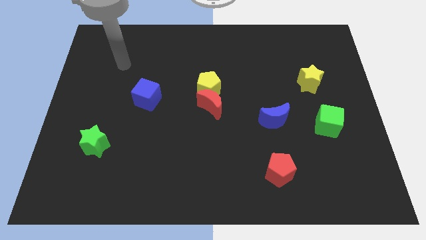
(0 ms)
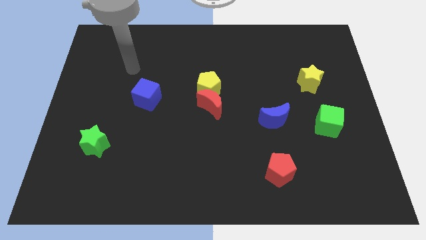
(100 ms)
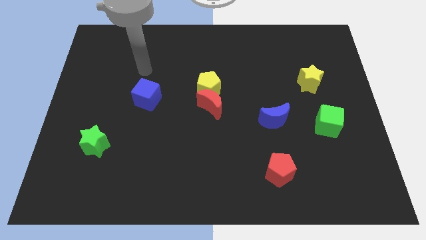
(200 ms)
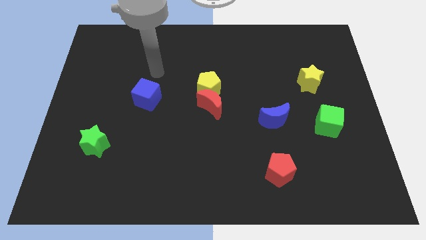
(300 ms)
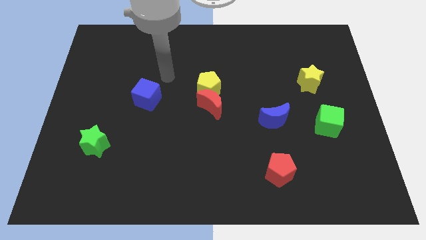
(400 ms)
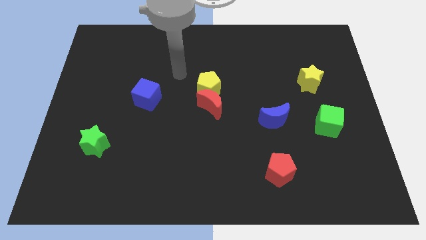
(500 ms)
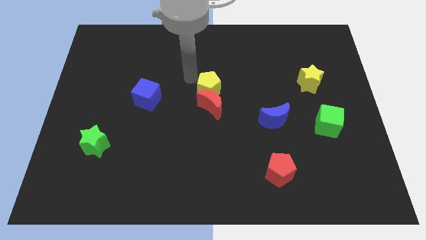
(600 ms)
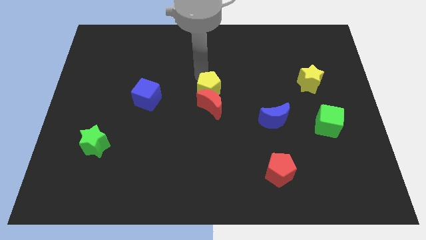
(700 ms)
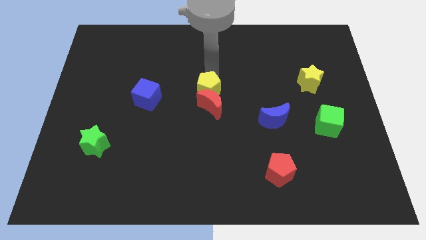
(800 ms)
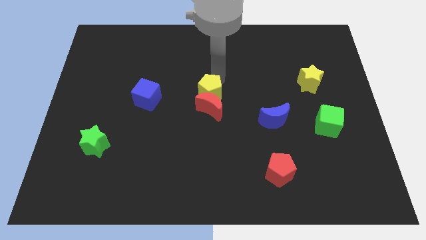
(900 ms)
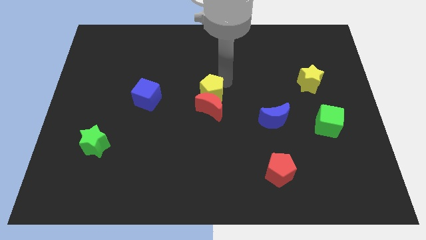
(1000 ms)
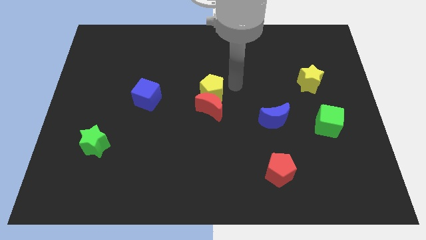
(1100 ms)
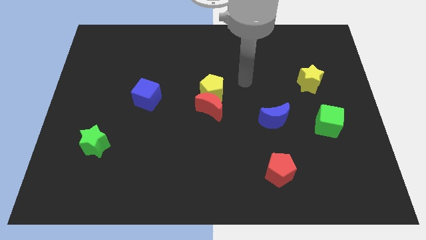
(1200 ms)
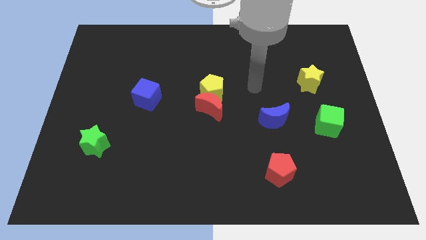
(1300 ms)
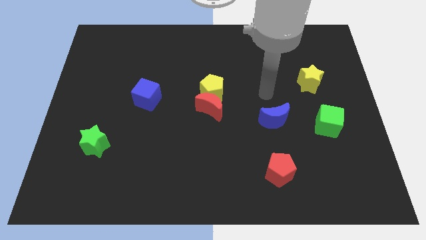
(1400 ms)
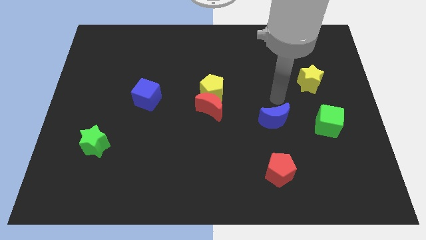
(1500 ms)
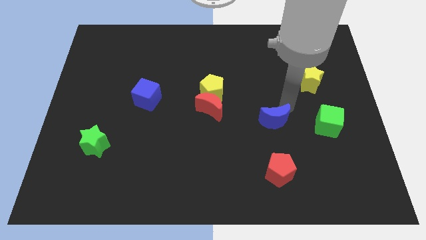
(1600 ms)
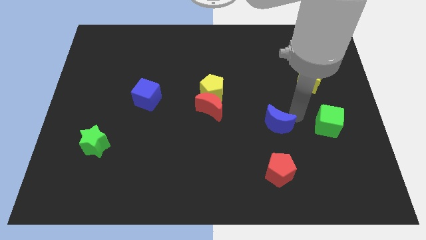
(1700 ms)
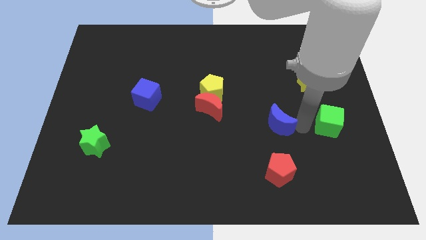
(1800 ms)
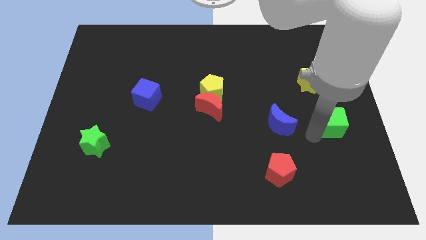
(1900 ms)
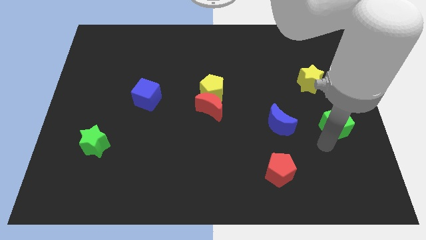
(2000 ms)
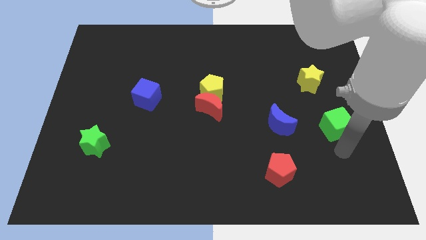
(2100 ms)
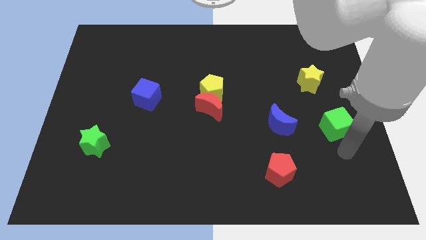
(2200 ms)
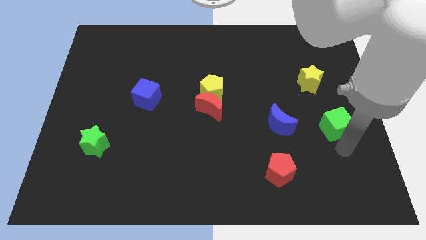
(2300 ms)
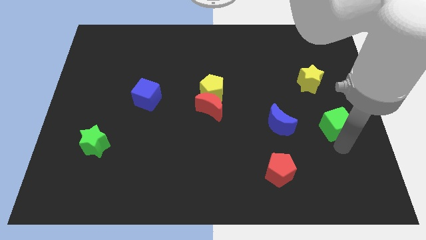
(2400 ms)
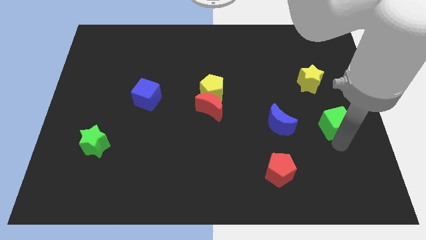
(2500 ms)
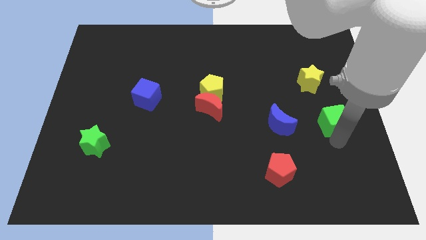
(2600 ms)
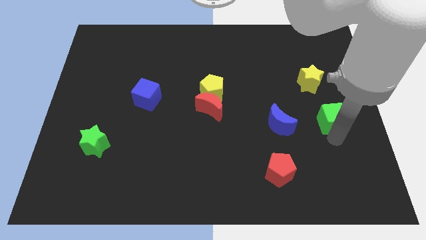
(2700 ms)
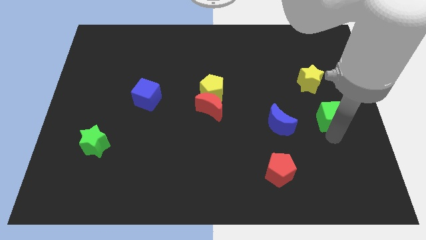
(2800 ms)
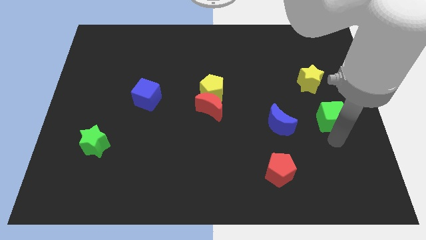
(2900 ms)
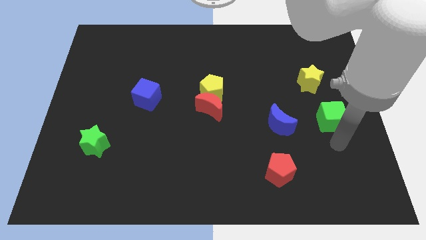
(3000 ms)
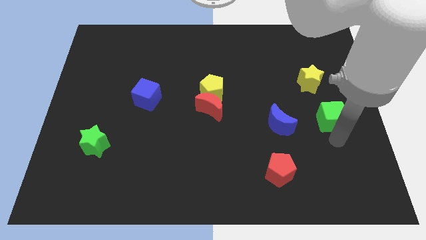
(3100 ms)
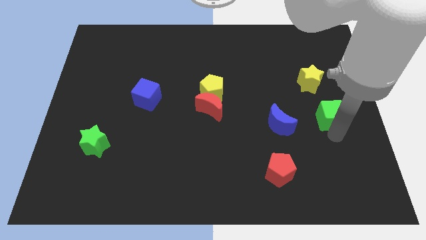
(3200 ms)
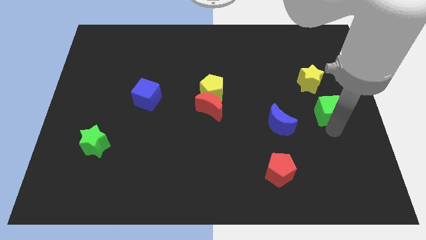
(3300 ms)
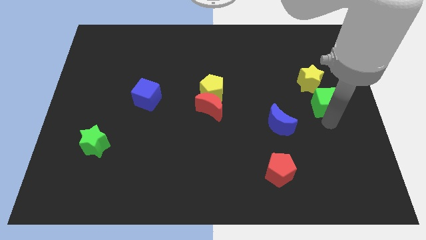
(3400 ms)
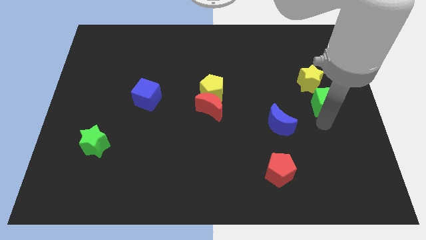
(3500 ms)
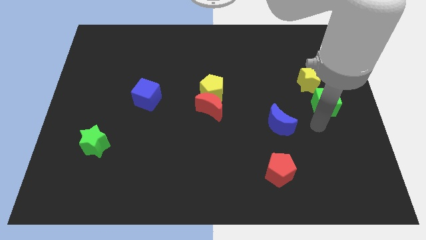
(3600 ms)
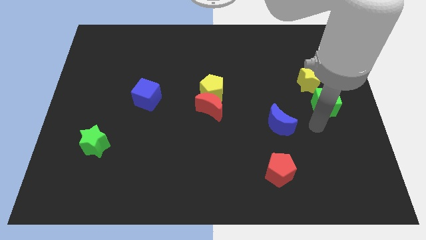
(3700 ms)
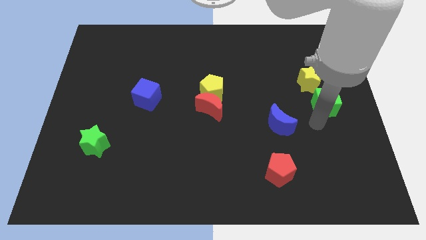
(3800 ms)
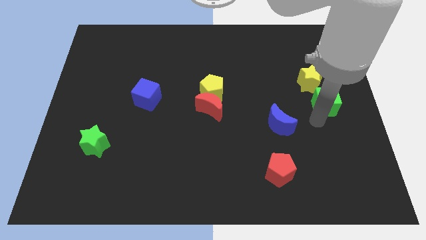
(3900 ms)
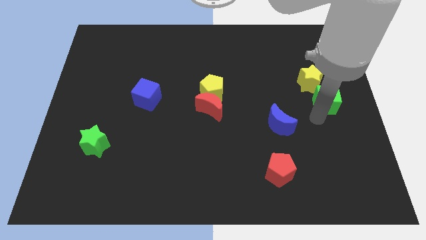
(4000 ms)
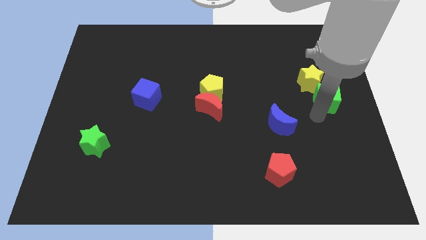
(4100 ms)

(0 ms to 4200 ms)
push the green cube somewhat up

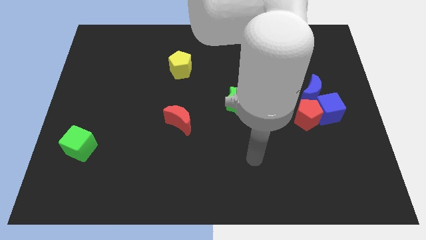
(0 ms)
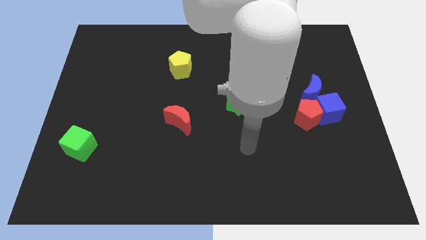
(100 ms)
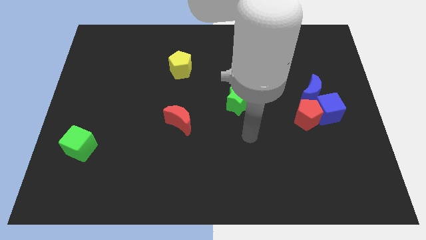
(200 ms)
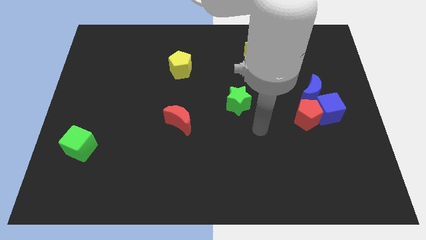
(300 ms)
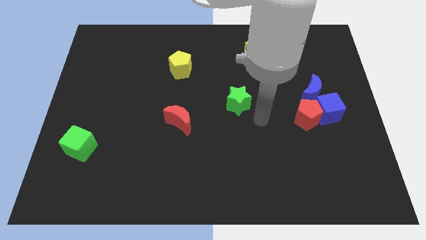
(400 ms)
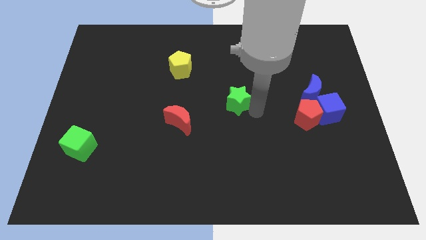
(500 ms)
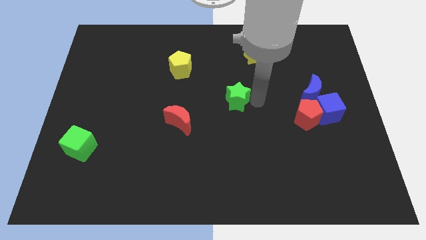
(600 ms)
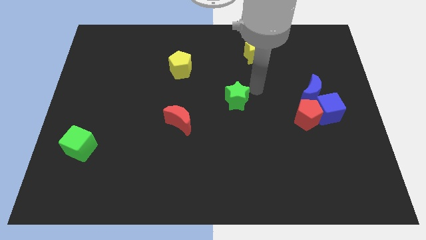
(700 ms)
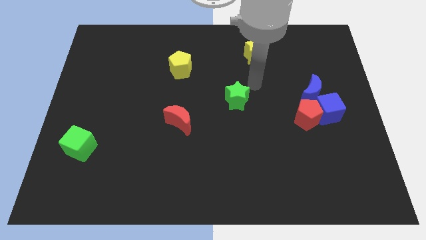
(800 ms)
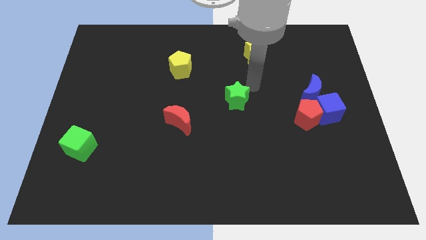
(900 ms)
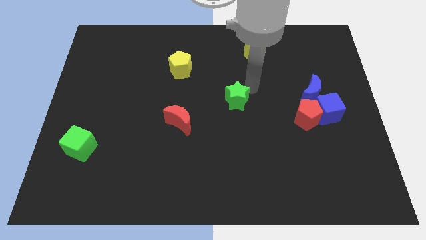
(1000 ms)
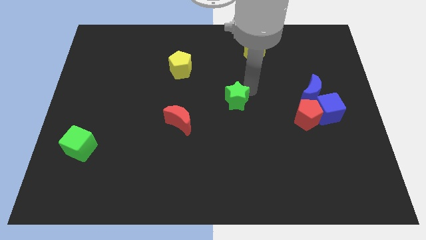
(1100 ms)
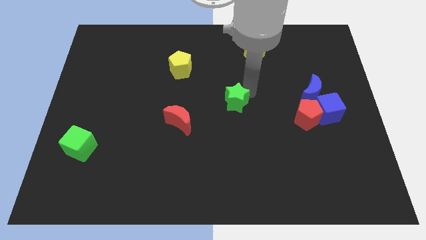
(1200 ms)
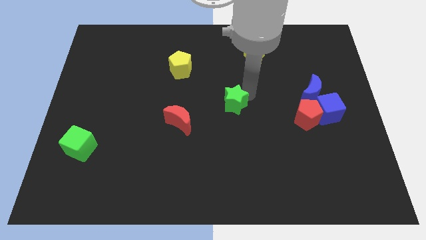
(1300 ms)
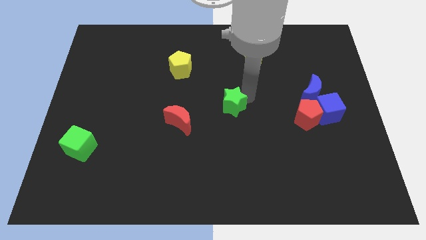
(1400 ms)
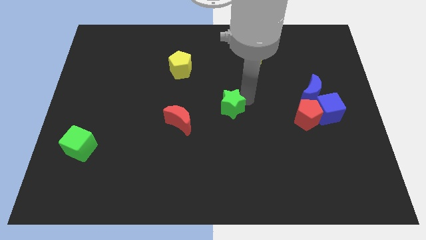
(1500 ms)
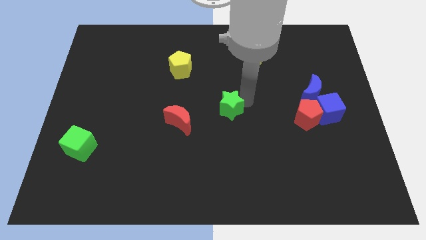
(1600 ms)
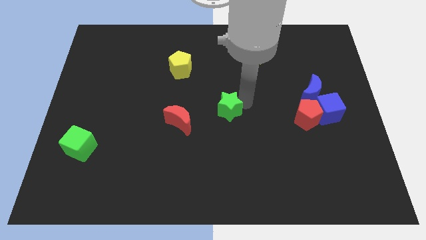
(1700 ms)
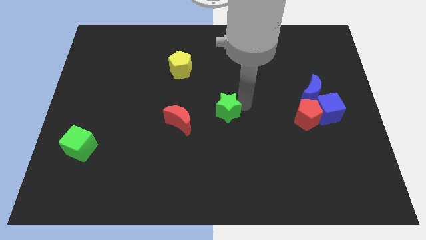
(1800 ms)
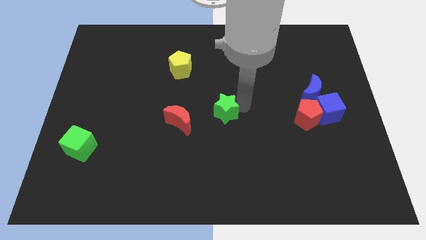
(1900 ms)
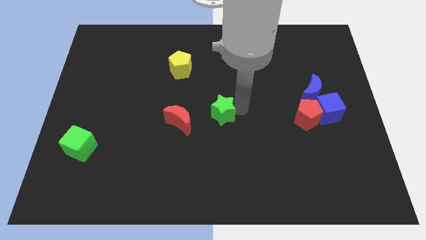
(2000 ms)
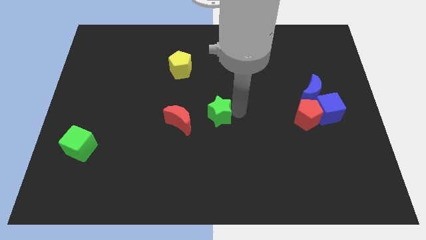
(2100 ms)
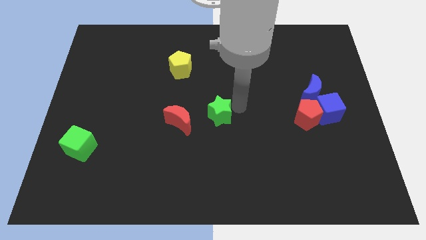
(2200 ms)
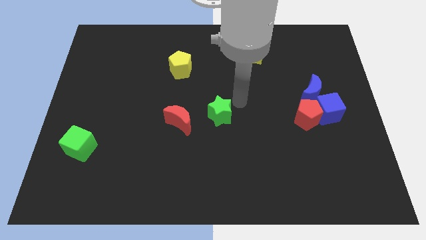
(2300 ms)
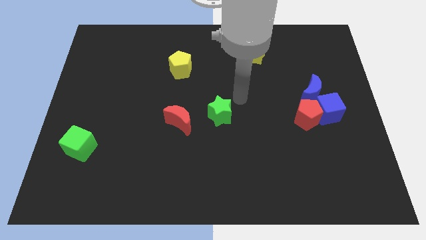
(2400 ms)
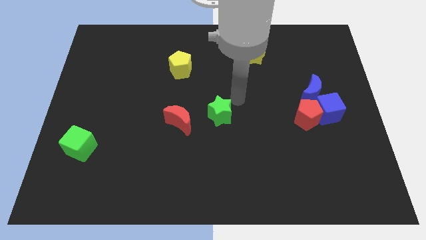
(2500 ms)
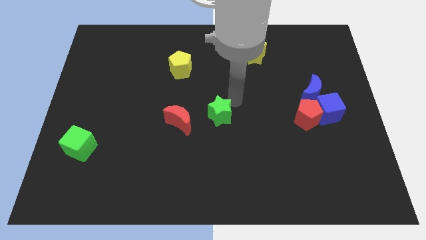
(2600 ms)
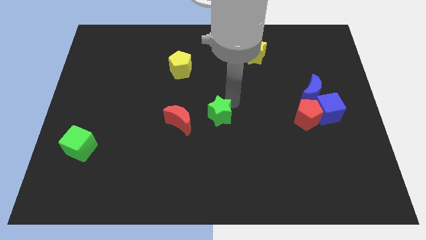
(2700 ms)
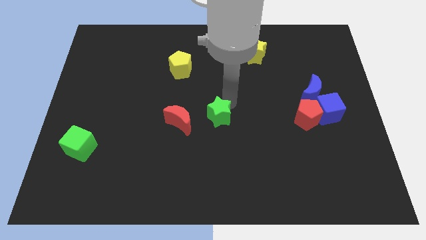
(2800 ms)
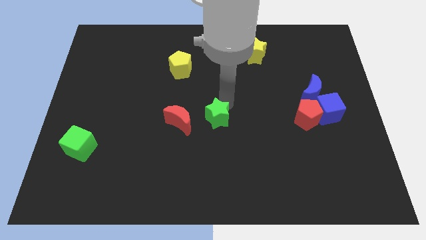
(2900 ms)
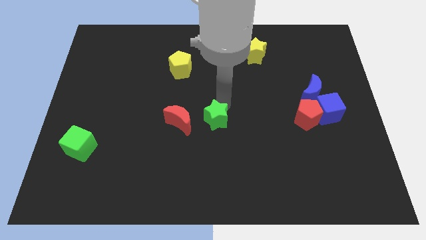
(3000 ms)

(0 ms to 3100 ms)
move the green star downwards and then to the left a little bit

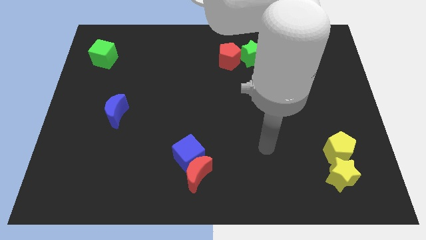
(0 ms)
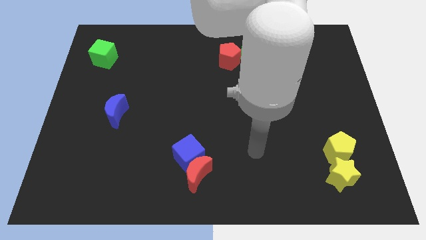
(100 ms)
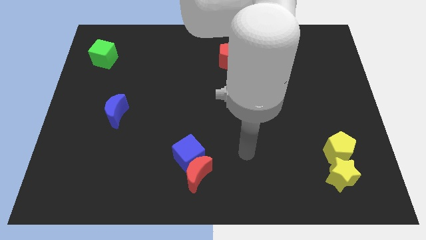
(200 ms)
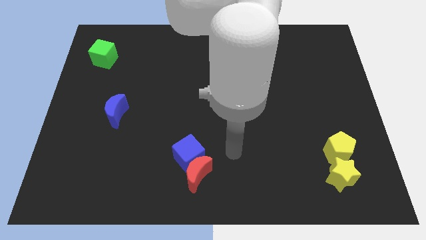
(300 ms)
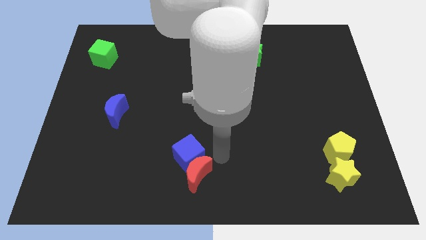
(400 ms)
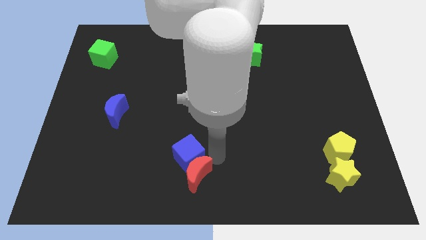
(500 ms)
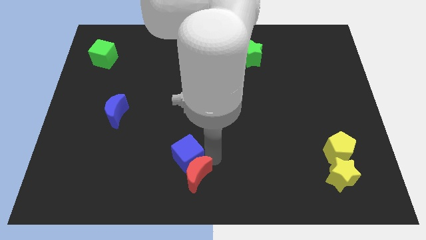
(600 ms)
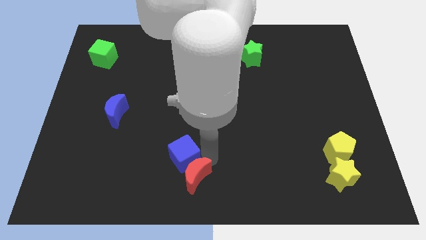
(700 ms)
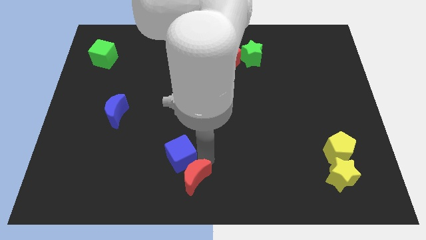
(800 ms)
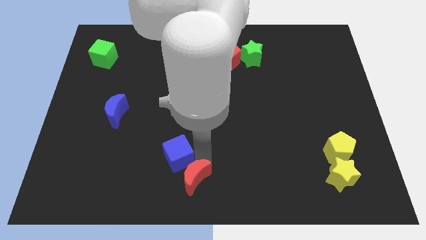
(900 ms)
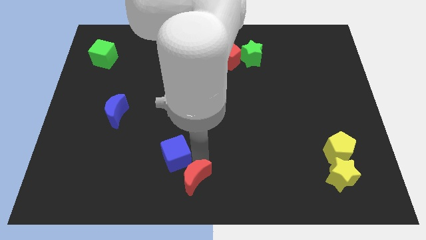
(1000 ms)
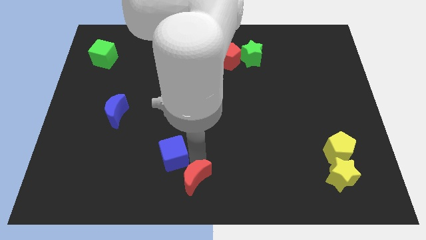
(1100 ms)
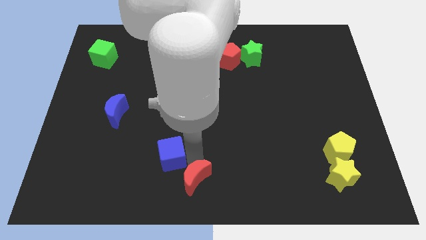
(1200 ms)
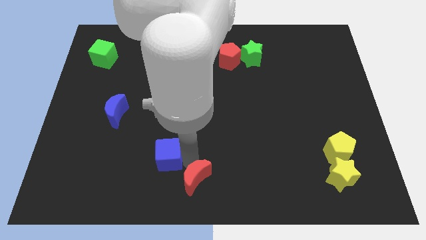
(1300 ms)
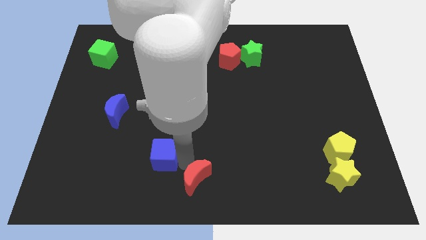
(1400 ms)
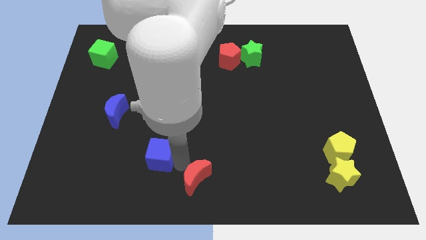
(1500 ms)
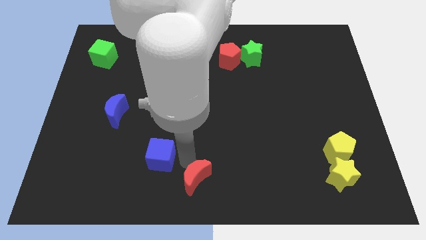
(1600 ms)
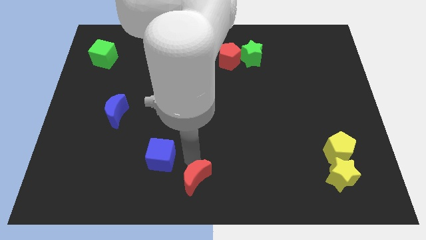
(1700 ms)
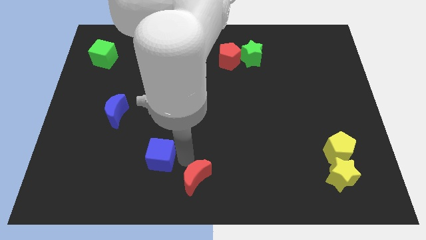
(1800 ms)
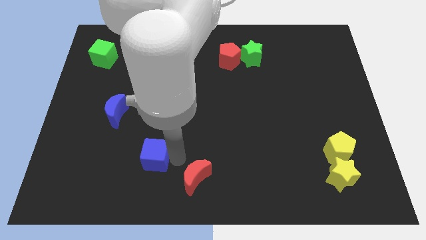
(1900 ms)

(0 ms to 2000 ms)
move the blue cube a bit left
